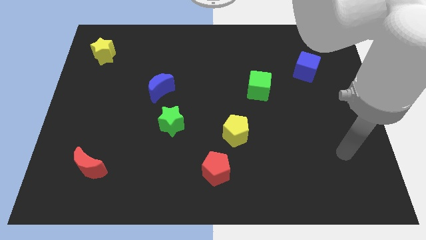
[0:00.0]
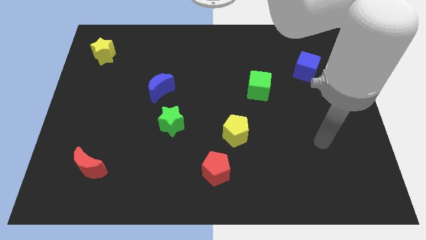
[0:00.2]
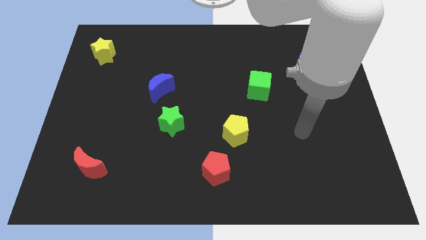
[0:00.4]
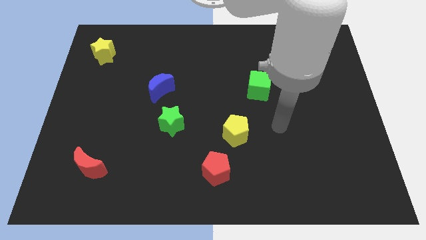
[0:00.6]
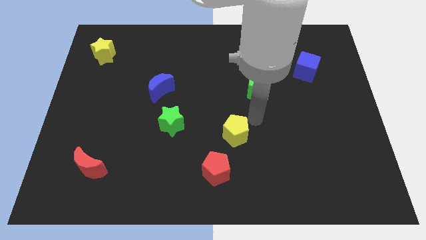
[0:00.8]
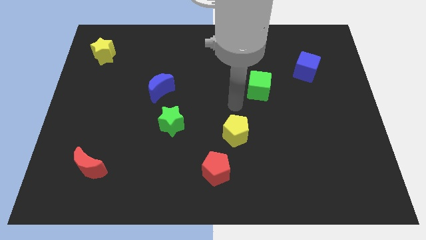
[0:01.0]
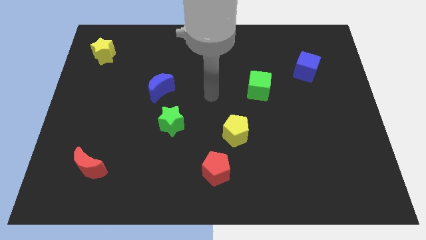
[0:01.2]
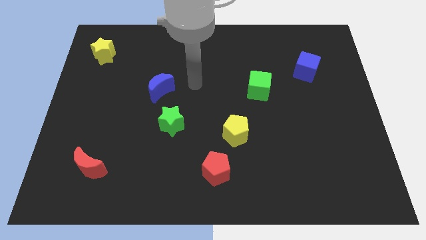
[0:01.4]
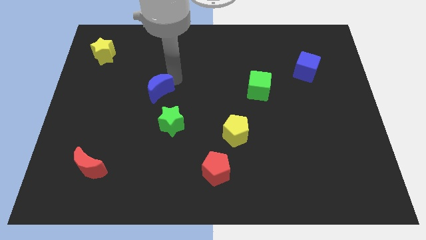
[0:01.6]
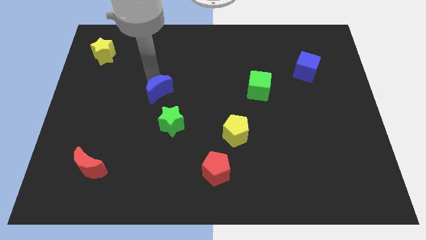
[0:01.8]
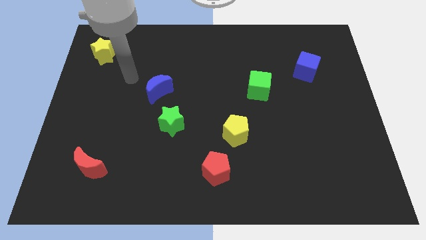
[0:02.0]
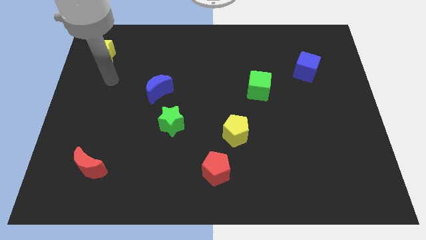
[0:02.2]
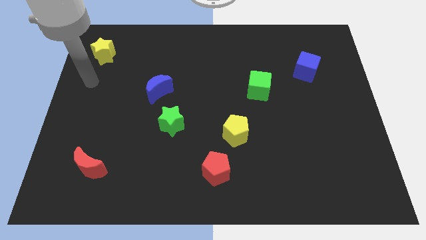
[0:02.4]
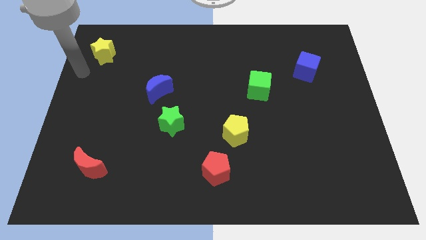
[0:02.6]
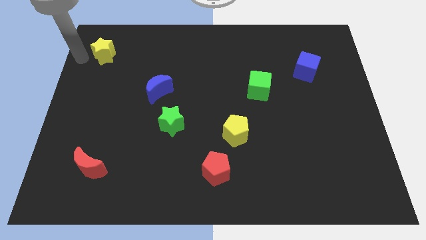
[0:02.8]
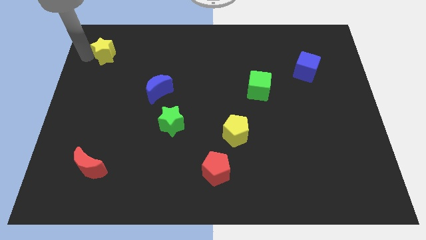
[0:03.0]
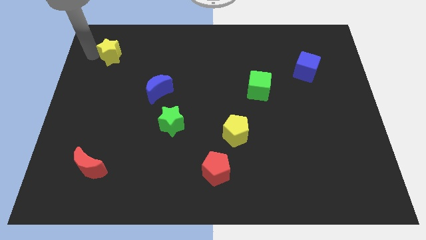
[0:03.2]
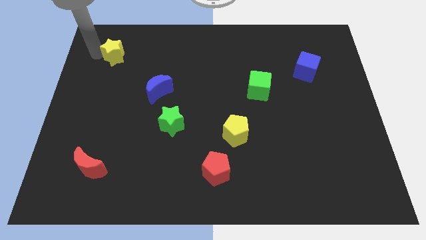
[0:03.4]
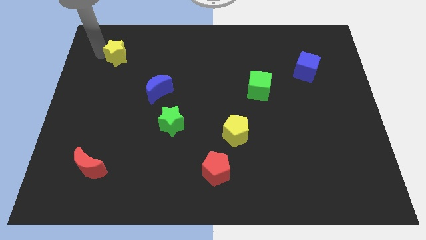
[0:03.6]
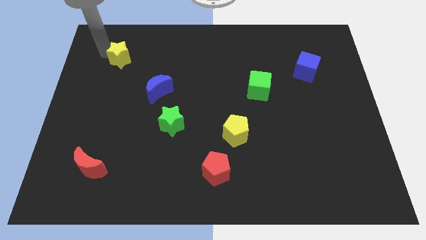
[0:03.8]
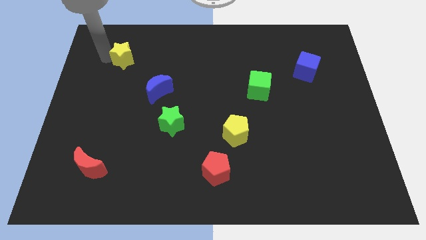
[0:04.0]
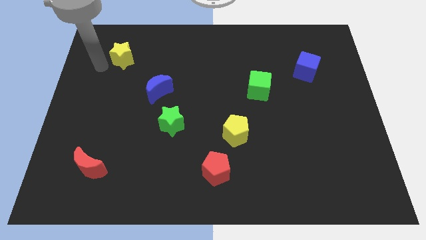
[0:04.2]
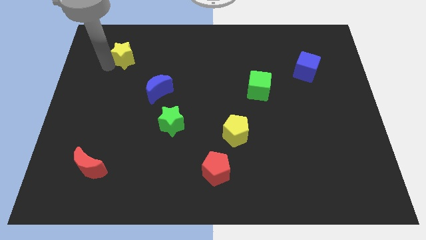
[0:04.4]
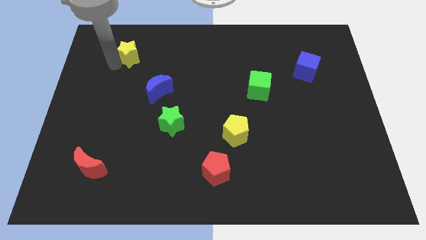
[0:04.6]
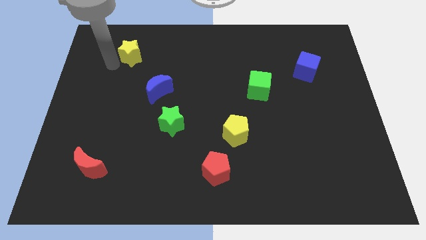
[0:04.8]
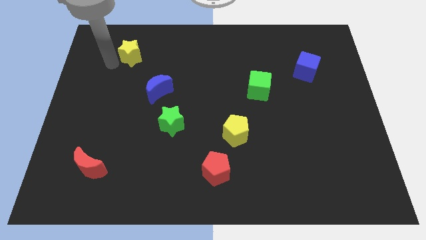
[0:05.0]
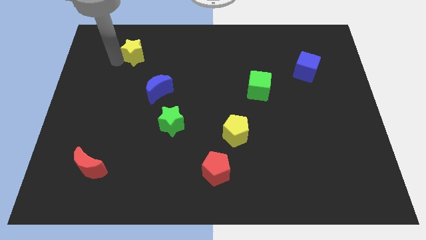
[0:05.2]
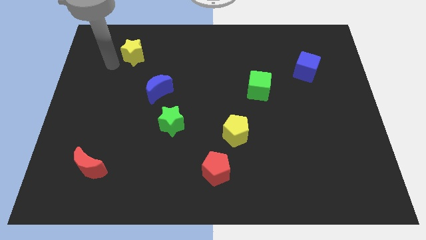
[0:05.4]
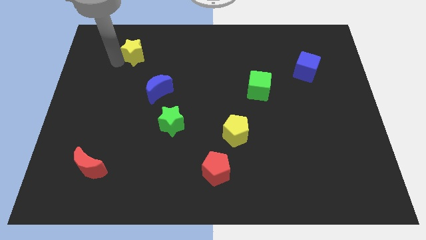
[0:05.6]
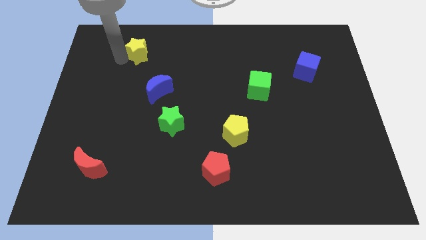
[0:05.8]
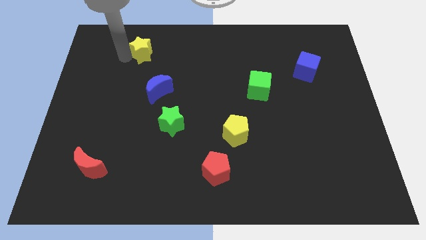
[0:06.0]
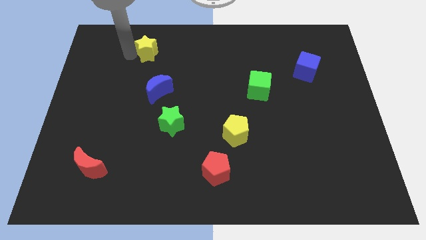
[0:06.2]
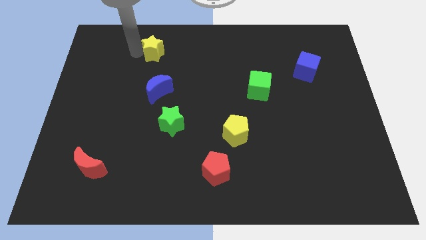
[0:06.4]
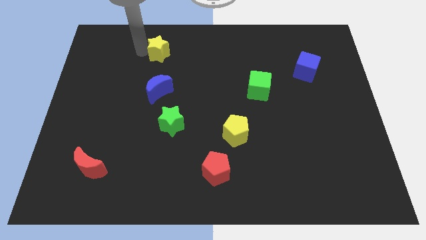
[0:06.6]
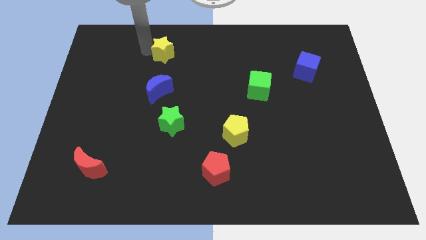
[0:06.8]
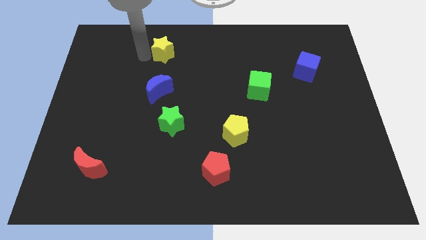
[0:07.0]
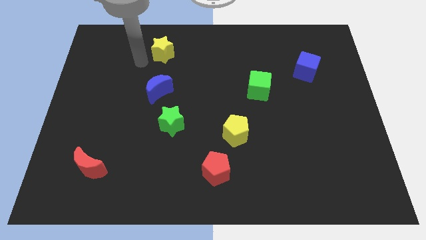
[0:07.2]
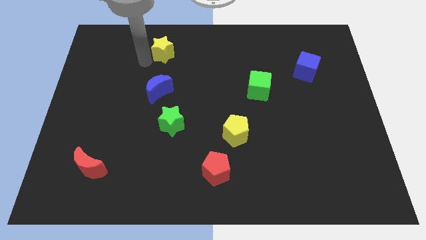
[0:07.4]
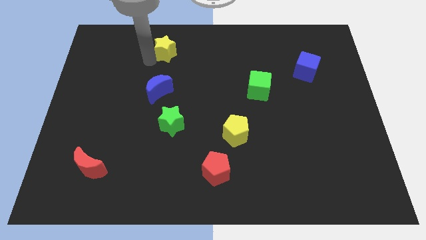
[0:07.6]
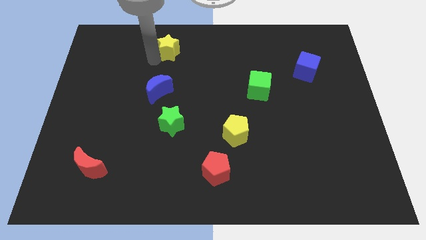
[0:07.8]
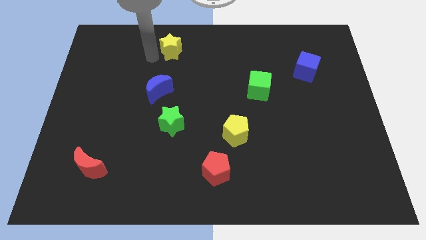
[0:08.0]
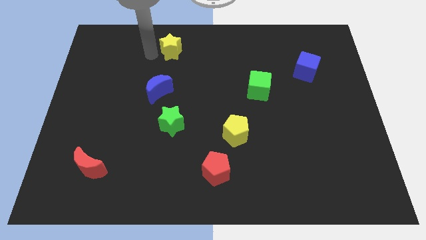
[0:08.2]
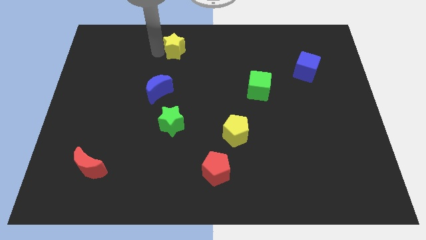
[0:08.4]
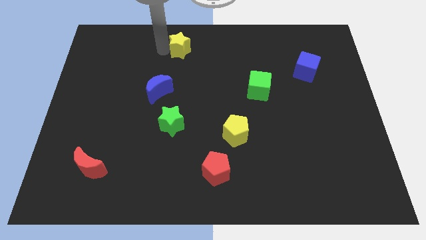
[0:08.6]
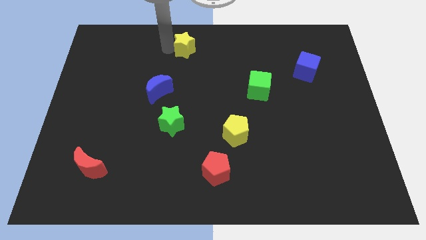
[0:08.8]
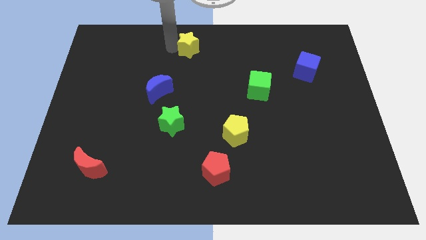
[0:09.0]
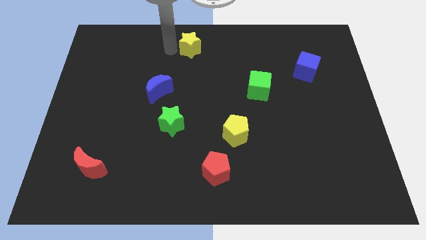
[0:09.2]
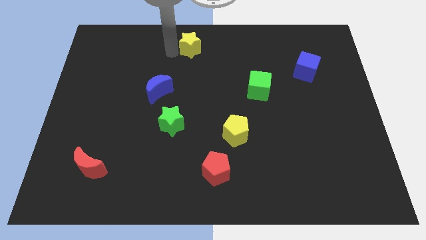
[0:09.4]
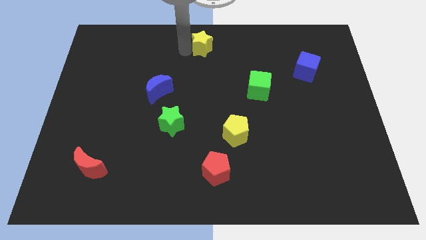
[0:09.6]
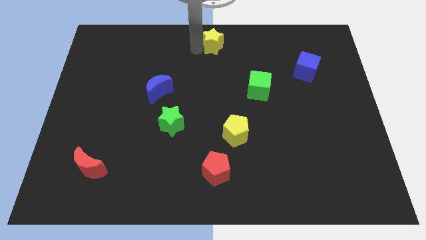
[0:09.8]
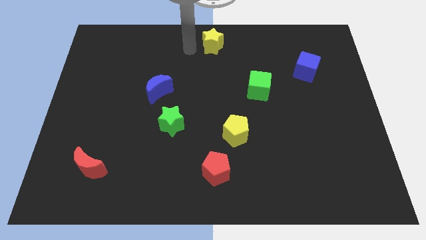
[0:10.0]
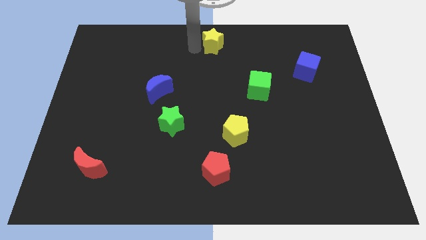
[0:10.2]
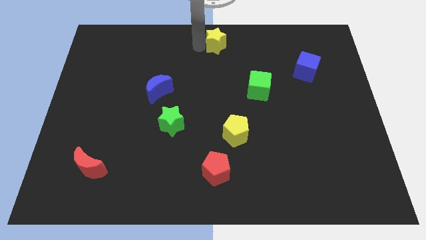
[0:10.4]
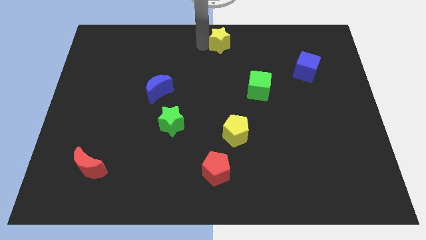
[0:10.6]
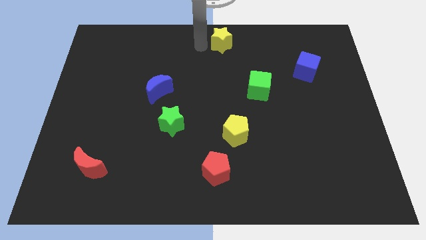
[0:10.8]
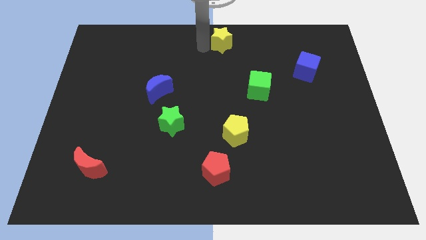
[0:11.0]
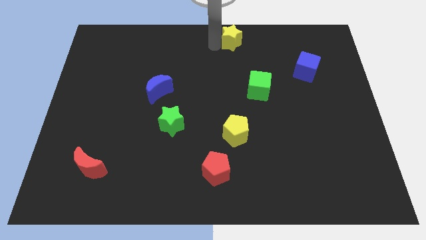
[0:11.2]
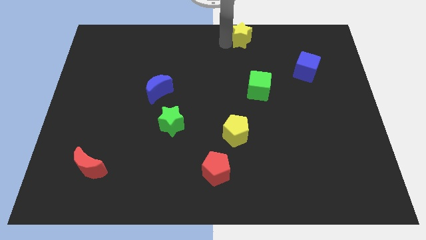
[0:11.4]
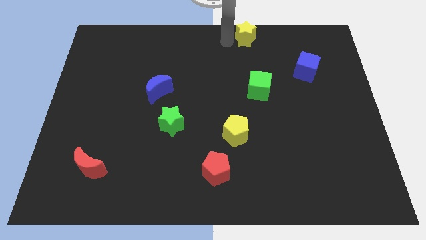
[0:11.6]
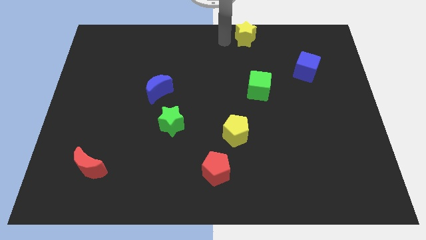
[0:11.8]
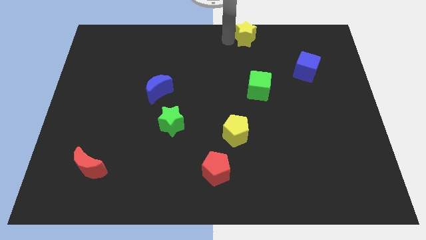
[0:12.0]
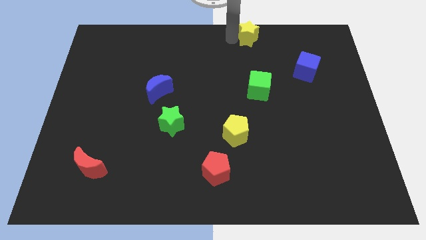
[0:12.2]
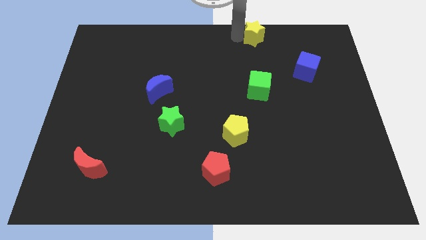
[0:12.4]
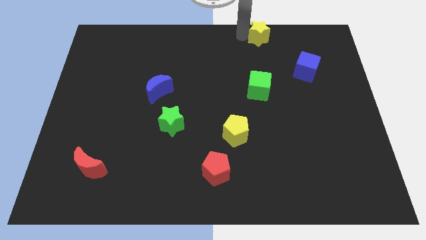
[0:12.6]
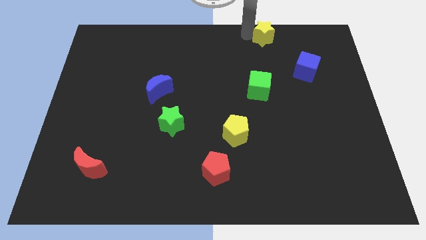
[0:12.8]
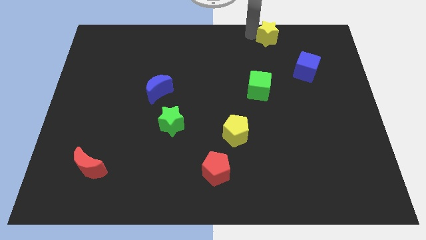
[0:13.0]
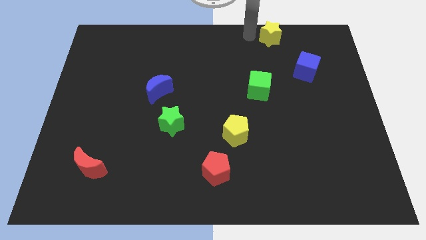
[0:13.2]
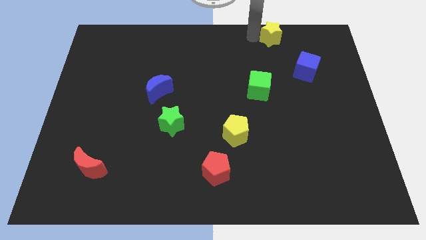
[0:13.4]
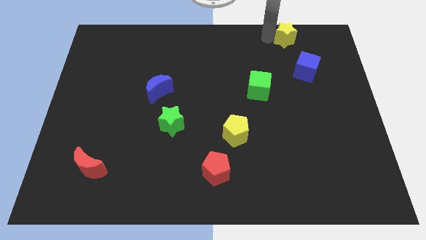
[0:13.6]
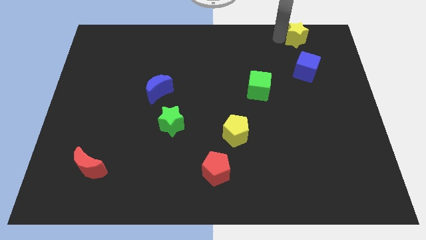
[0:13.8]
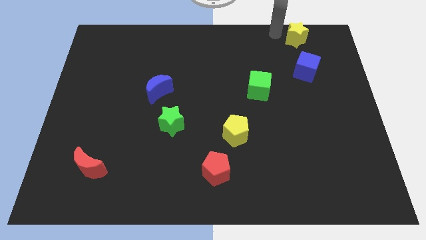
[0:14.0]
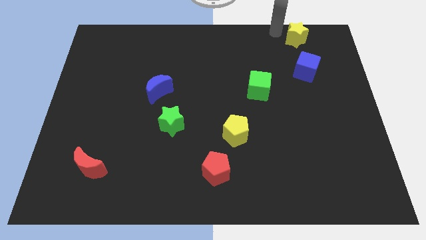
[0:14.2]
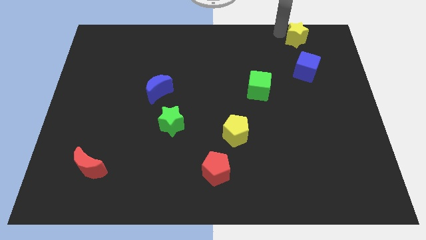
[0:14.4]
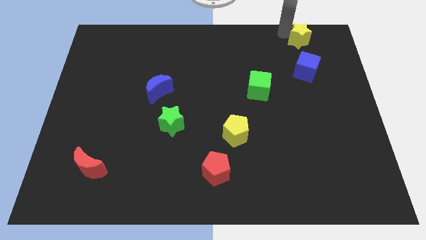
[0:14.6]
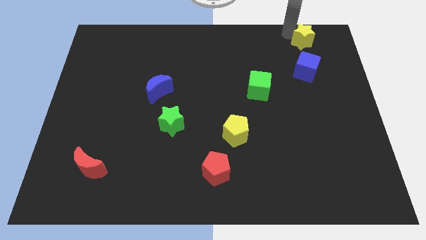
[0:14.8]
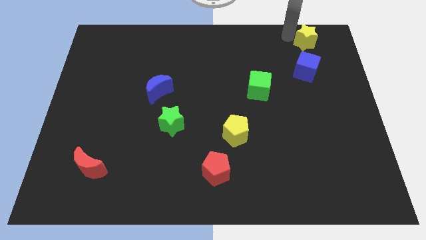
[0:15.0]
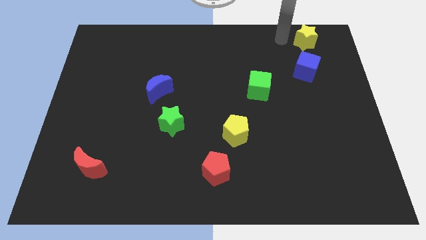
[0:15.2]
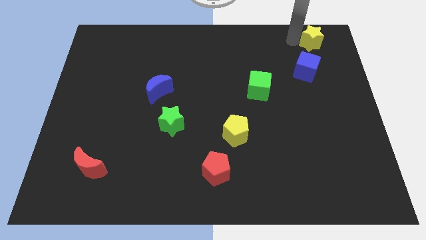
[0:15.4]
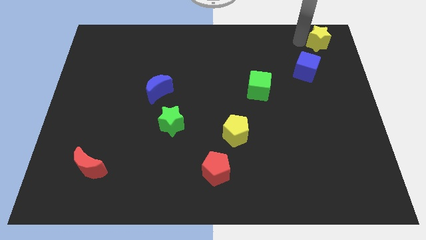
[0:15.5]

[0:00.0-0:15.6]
put the yellow star to the top right of the board
